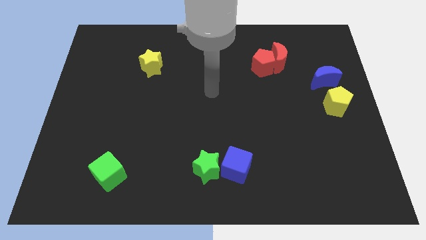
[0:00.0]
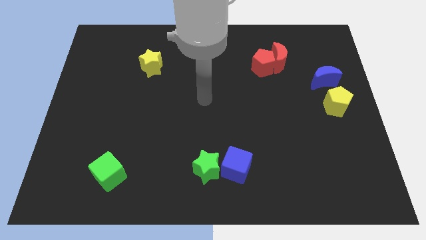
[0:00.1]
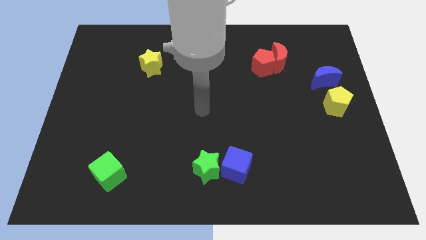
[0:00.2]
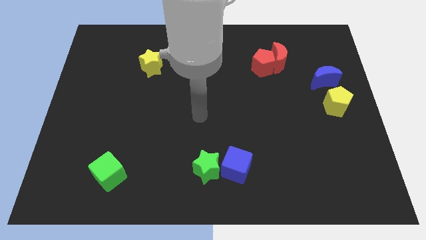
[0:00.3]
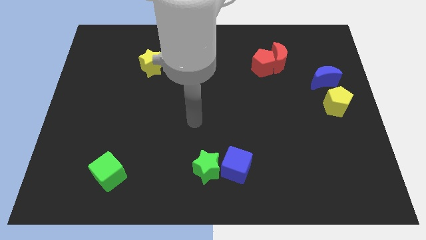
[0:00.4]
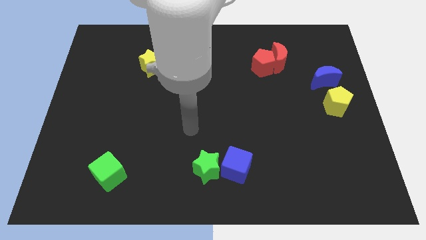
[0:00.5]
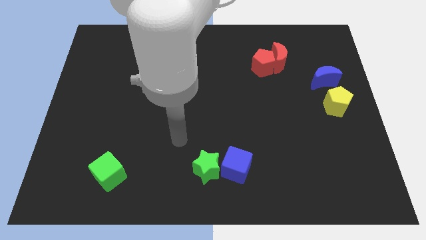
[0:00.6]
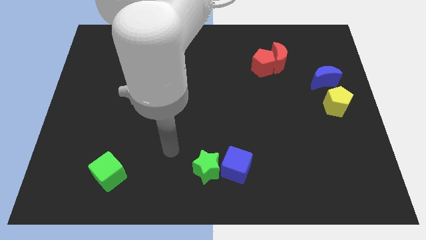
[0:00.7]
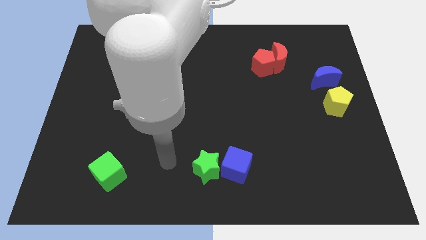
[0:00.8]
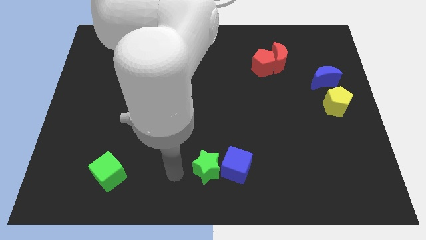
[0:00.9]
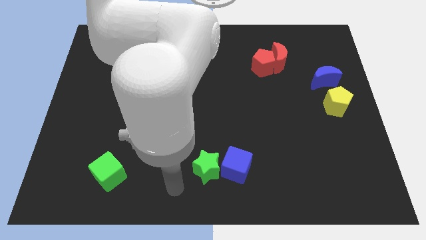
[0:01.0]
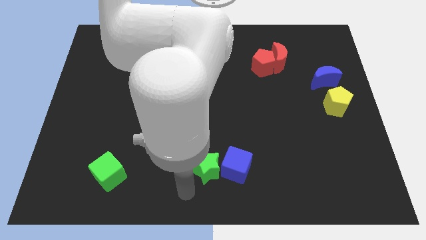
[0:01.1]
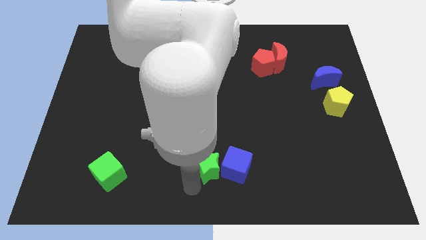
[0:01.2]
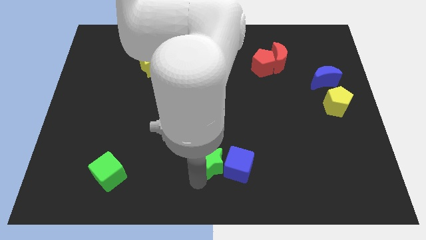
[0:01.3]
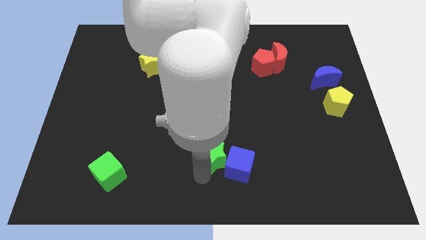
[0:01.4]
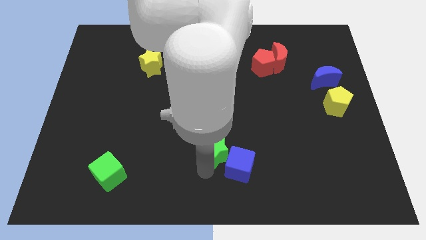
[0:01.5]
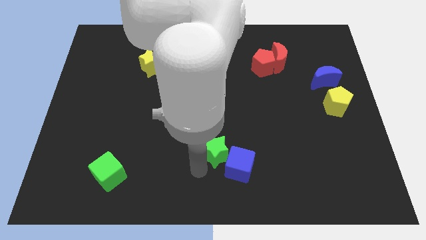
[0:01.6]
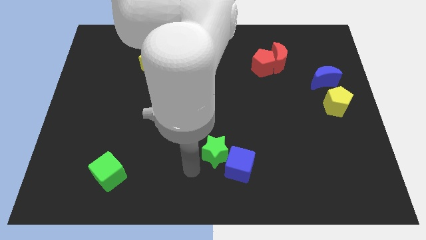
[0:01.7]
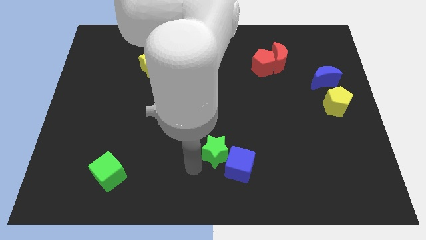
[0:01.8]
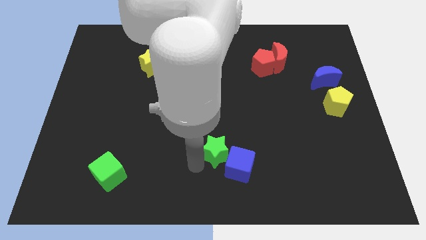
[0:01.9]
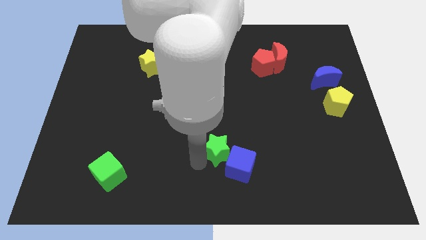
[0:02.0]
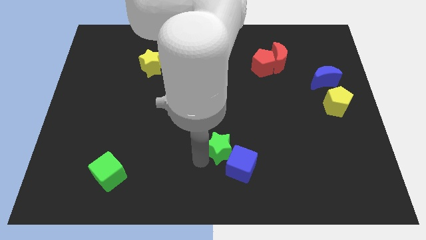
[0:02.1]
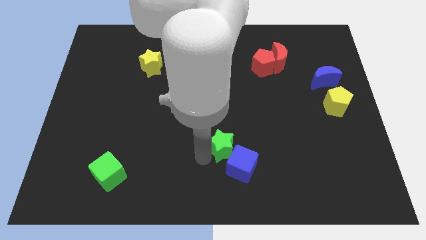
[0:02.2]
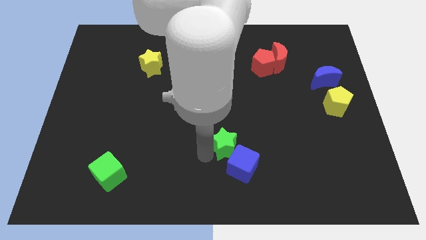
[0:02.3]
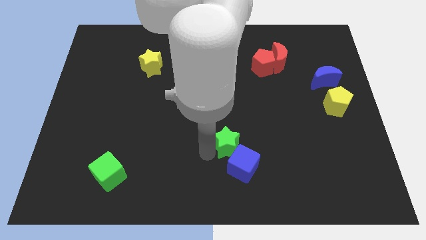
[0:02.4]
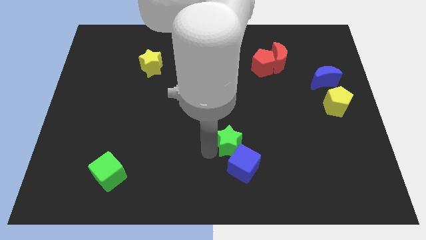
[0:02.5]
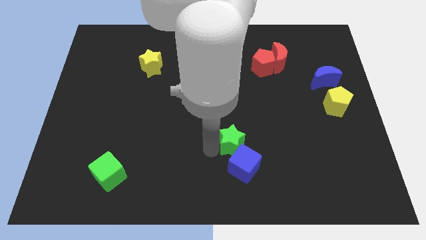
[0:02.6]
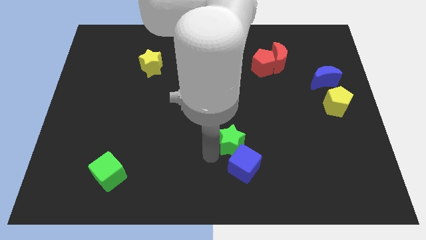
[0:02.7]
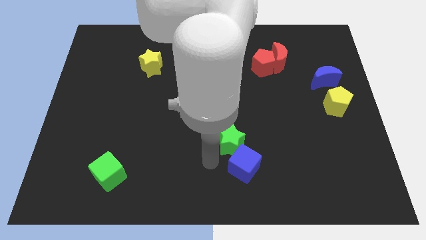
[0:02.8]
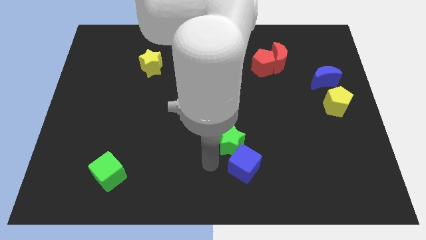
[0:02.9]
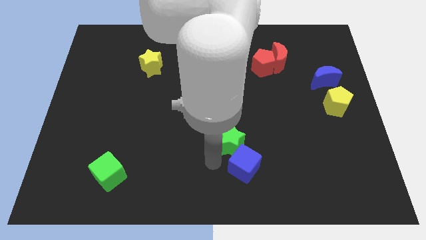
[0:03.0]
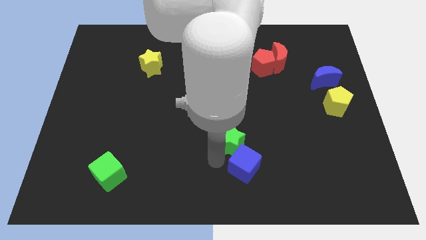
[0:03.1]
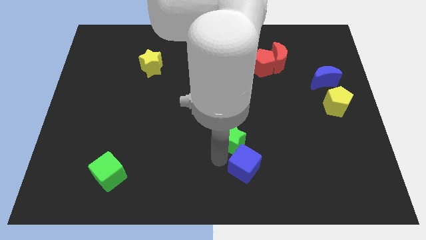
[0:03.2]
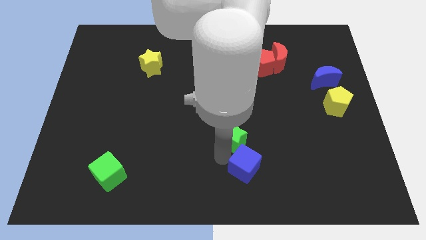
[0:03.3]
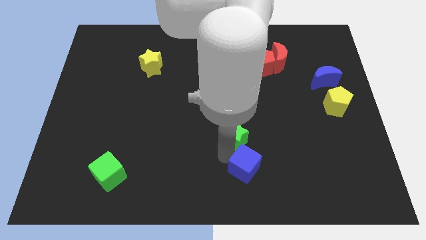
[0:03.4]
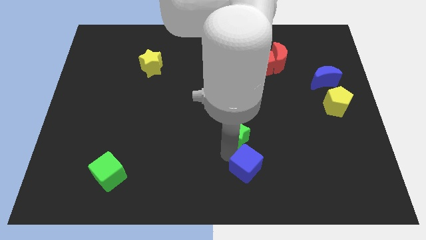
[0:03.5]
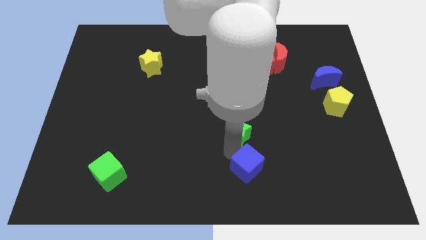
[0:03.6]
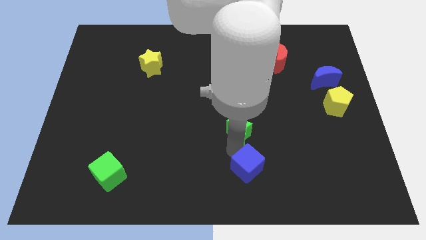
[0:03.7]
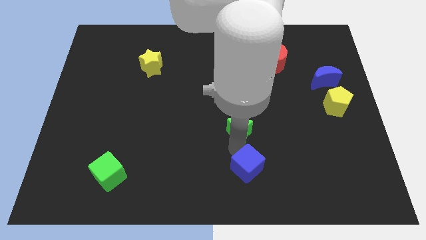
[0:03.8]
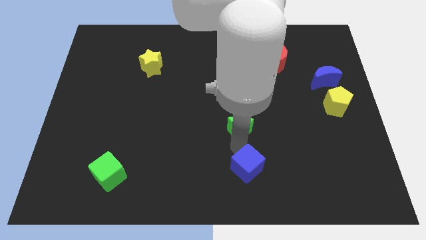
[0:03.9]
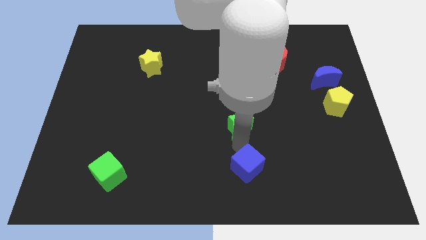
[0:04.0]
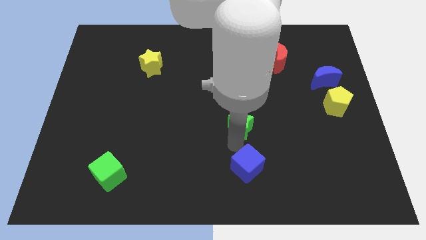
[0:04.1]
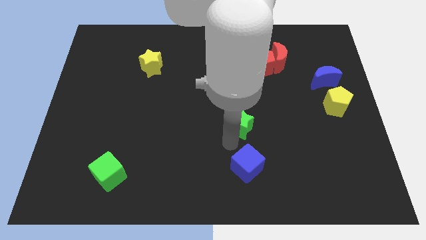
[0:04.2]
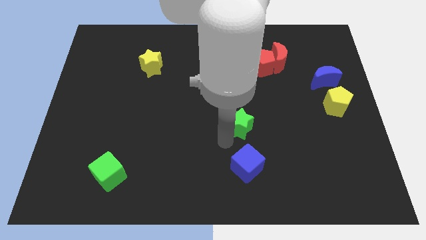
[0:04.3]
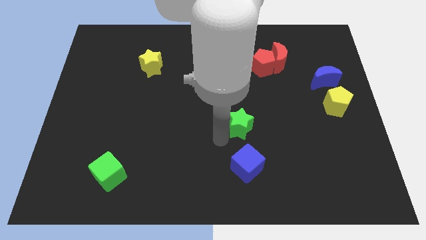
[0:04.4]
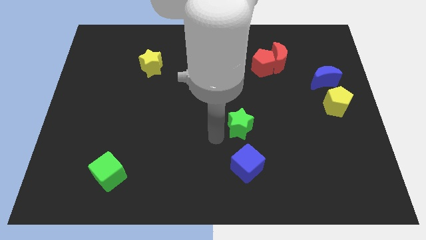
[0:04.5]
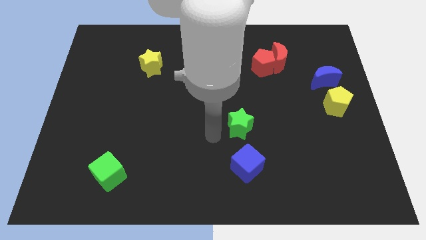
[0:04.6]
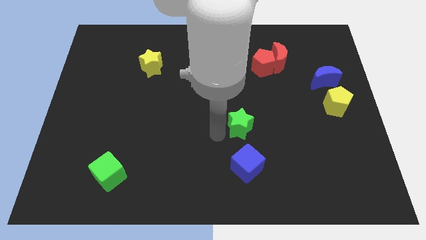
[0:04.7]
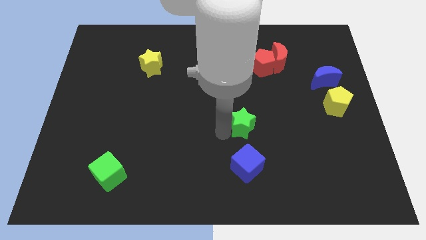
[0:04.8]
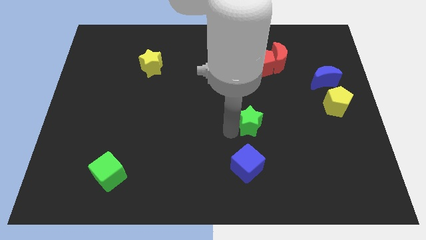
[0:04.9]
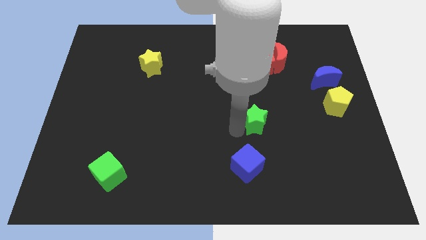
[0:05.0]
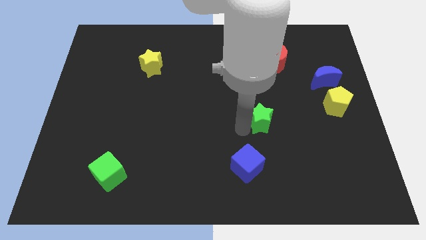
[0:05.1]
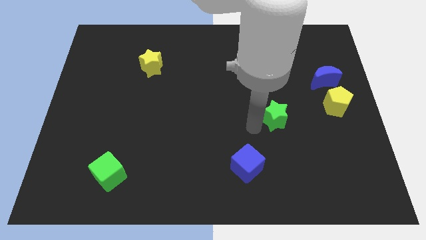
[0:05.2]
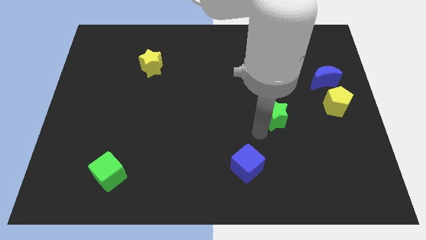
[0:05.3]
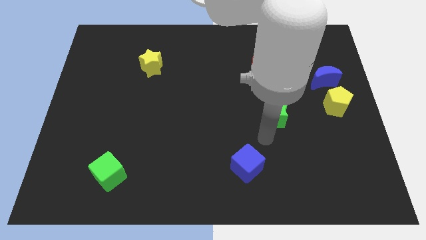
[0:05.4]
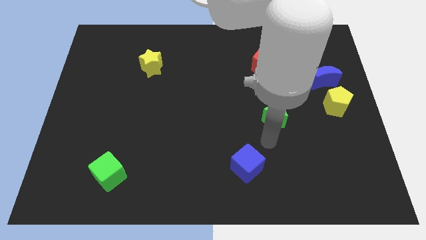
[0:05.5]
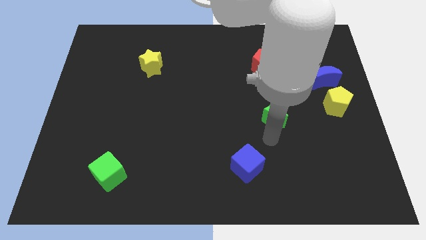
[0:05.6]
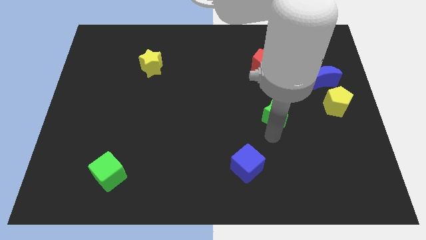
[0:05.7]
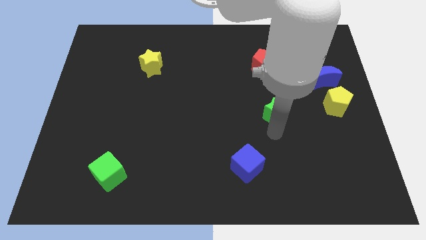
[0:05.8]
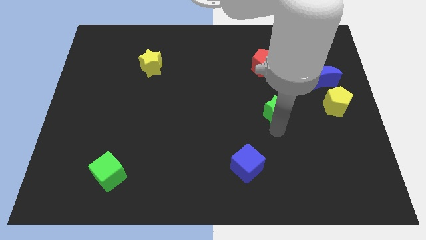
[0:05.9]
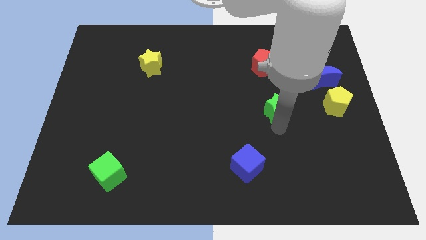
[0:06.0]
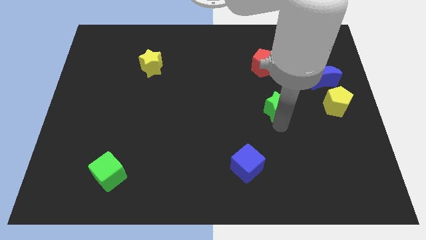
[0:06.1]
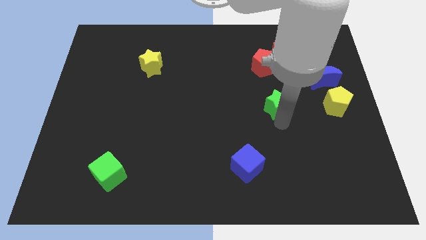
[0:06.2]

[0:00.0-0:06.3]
move the green star below the red moon
